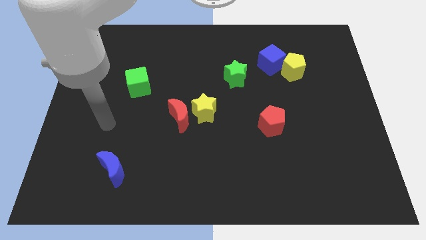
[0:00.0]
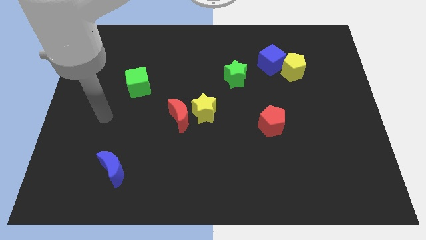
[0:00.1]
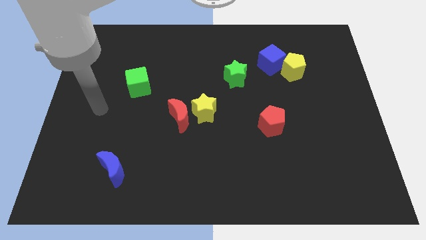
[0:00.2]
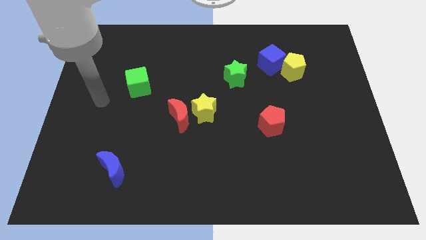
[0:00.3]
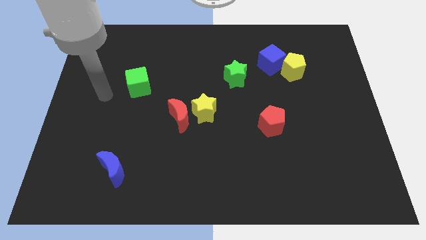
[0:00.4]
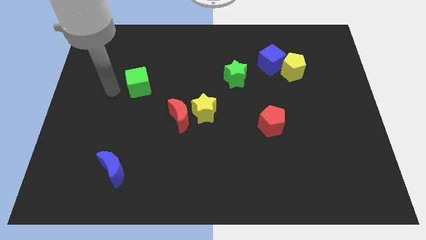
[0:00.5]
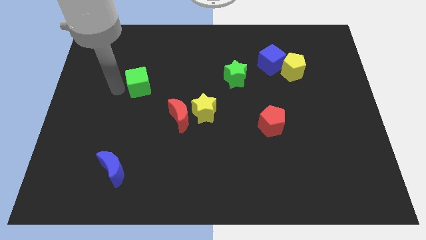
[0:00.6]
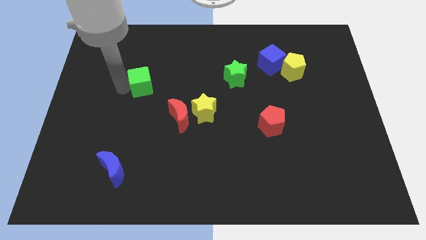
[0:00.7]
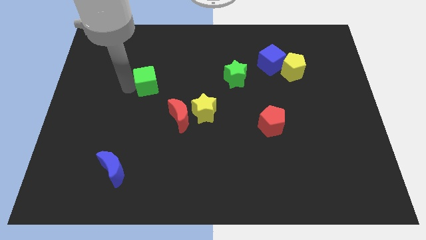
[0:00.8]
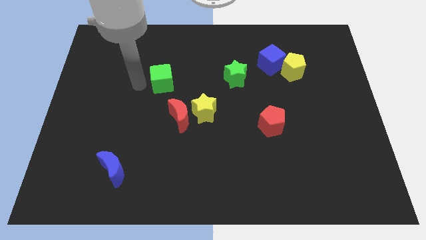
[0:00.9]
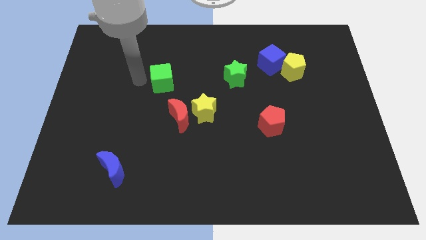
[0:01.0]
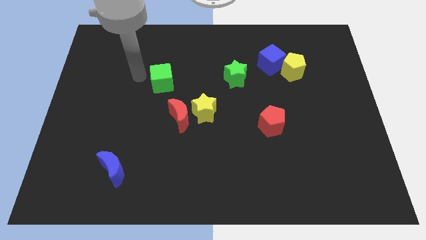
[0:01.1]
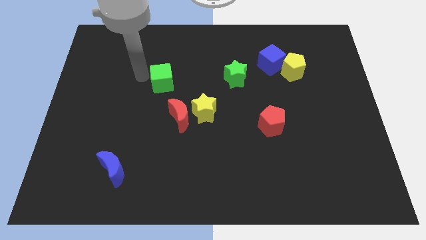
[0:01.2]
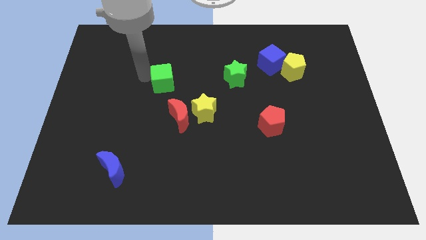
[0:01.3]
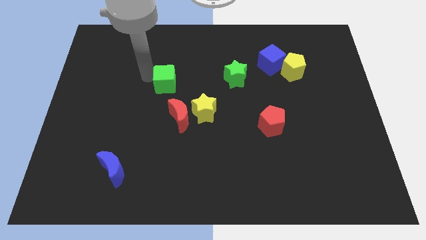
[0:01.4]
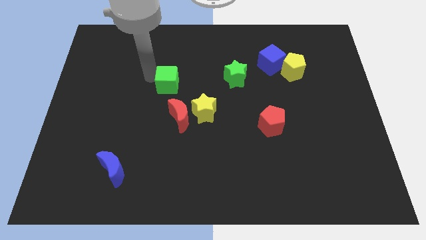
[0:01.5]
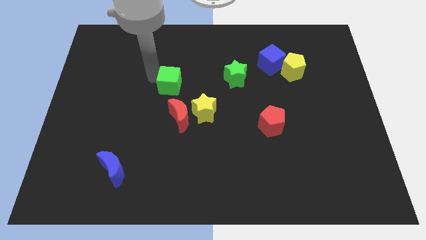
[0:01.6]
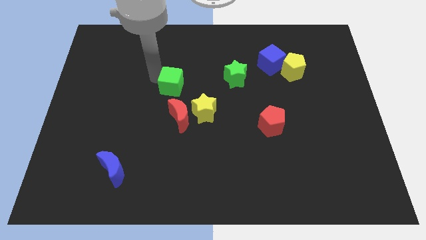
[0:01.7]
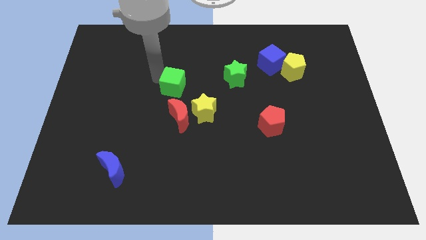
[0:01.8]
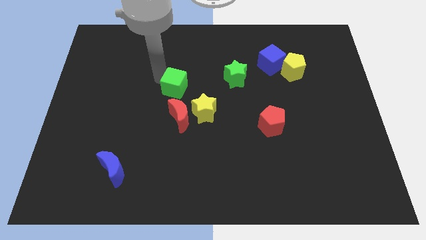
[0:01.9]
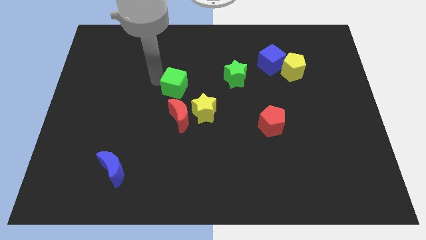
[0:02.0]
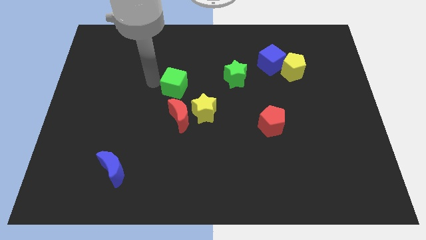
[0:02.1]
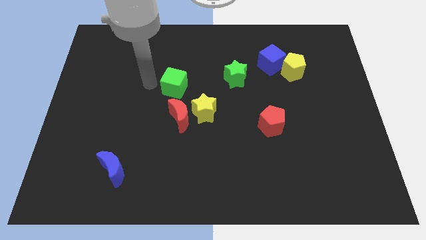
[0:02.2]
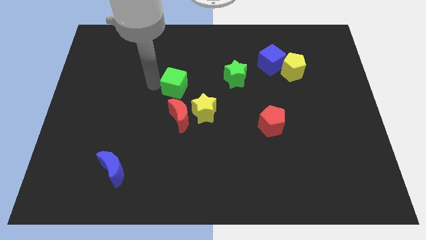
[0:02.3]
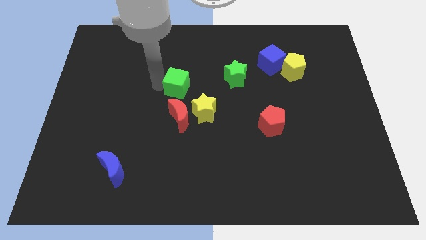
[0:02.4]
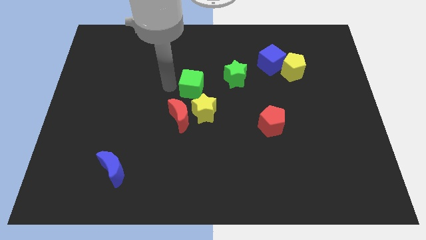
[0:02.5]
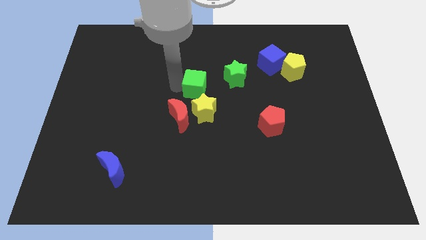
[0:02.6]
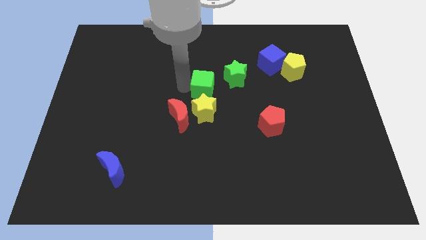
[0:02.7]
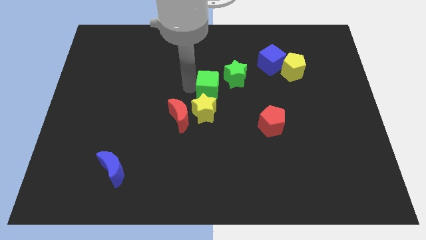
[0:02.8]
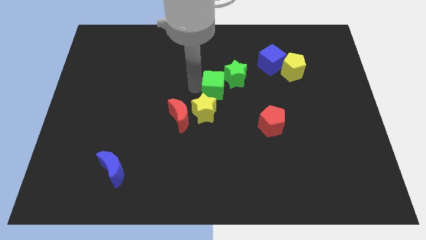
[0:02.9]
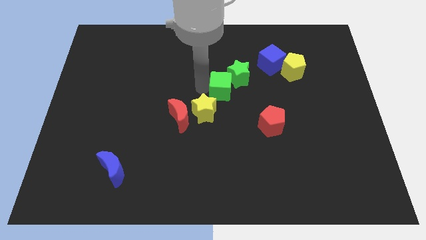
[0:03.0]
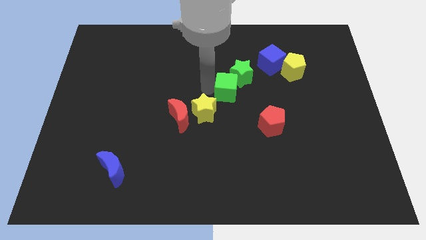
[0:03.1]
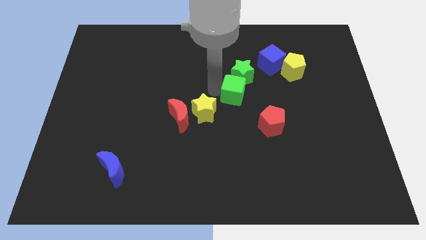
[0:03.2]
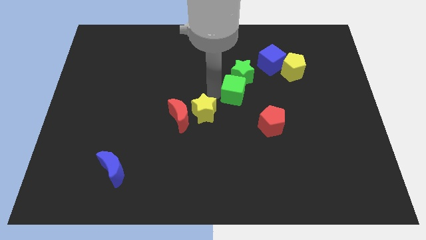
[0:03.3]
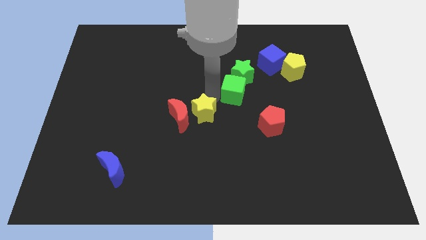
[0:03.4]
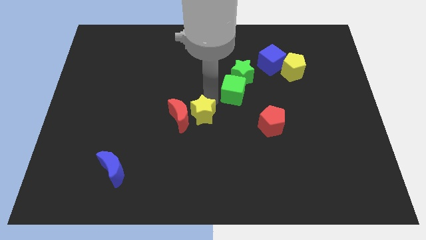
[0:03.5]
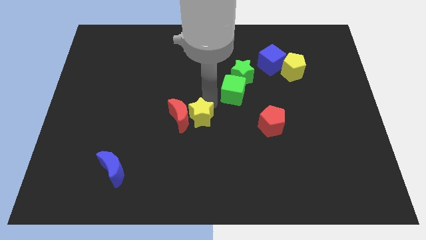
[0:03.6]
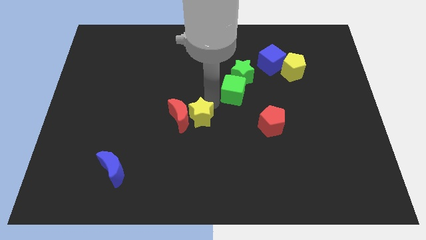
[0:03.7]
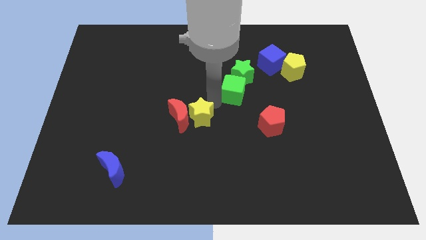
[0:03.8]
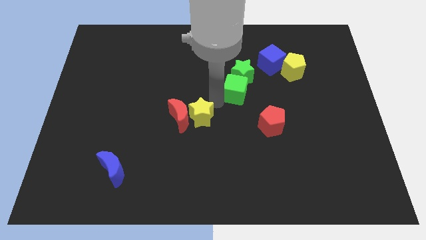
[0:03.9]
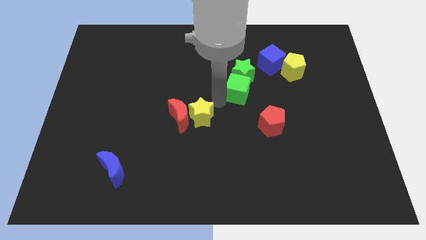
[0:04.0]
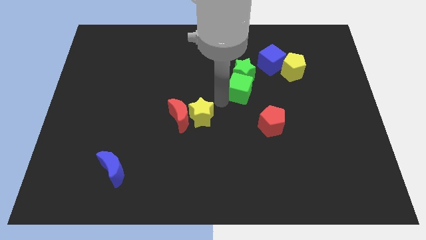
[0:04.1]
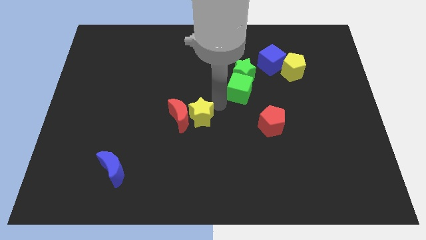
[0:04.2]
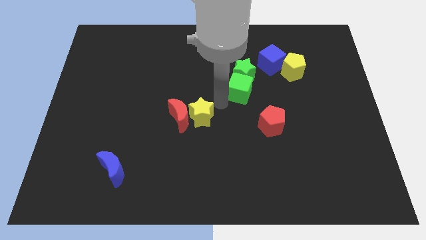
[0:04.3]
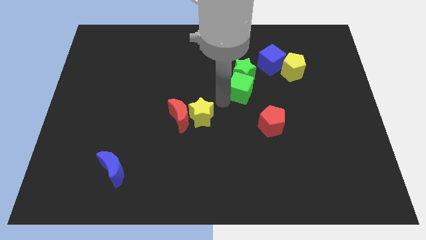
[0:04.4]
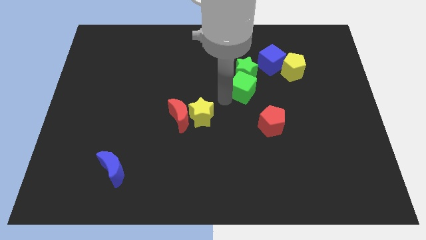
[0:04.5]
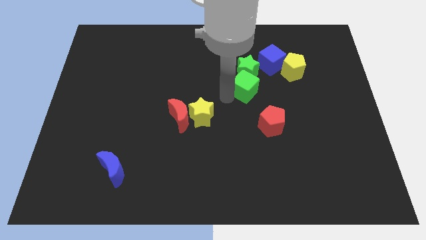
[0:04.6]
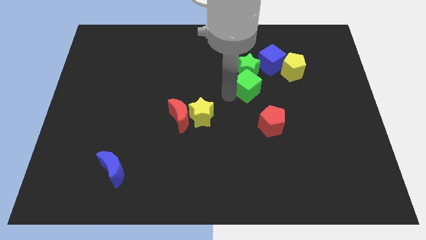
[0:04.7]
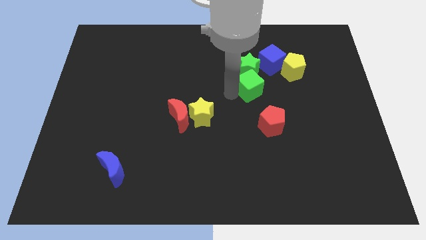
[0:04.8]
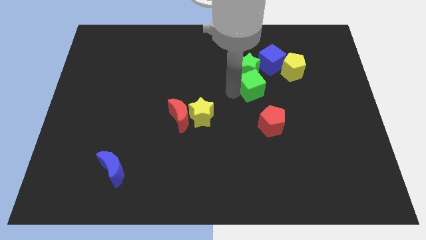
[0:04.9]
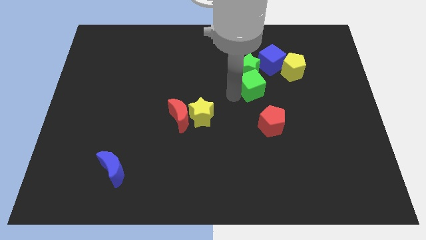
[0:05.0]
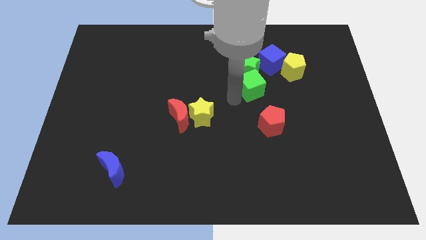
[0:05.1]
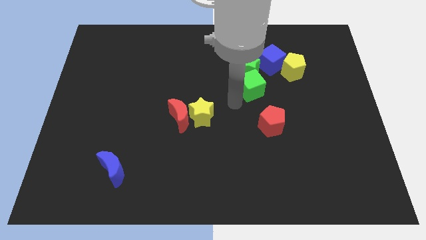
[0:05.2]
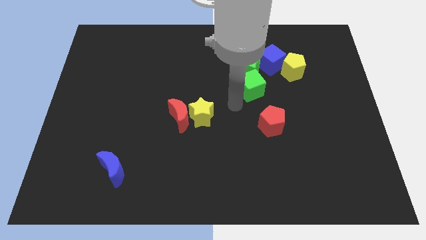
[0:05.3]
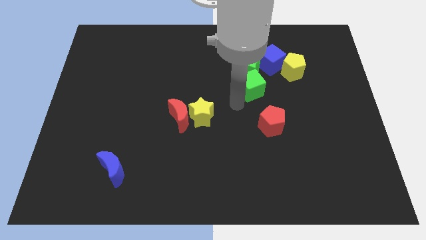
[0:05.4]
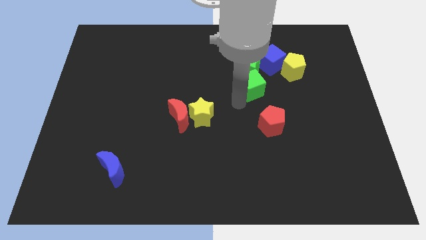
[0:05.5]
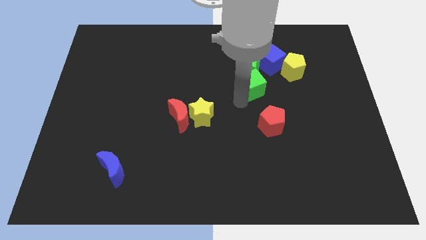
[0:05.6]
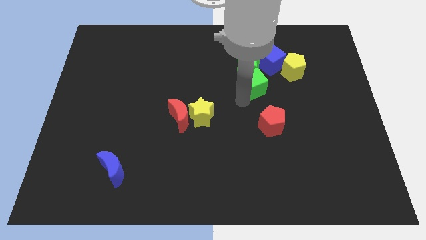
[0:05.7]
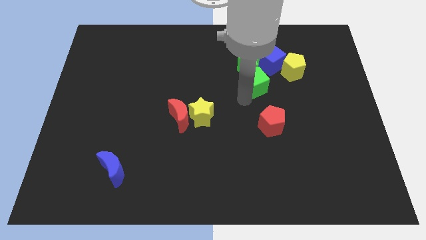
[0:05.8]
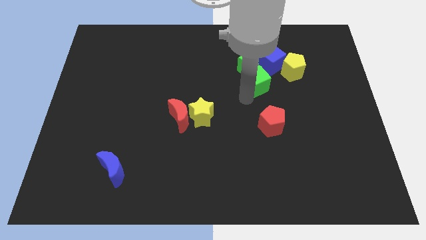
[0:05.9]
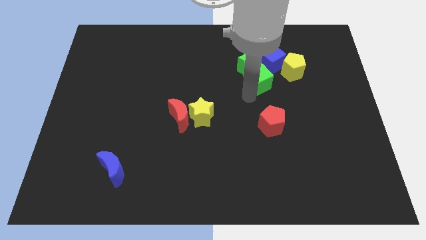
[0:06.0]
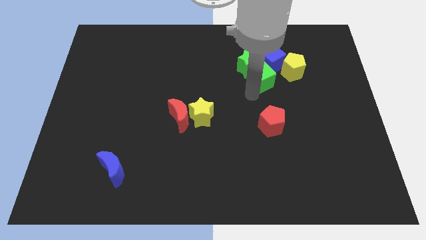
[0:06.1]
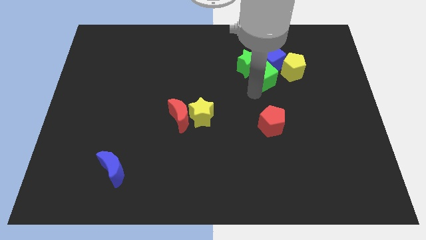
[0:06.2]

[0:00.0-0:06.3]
put the green cube towards the blue cube
